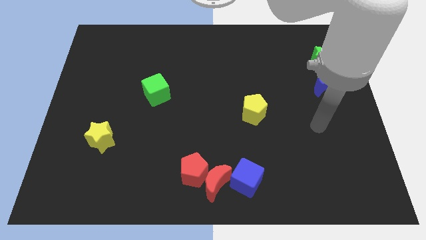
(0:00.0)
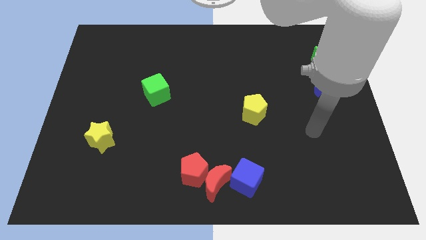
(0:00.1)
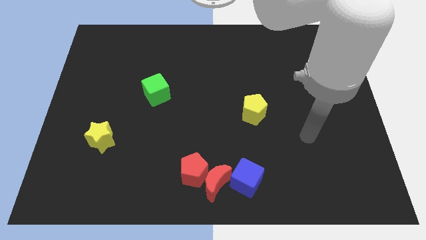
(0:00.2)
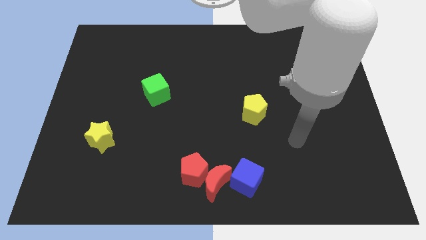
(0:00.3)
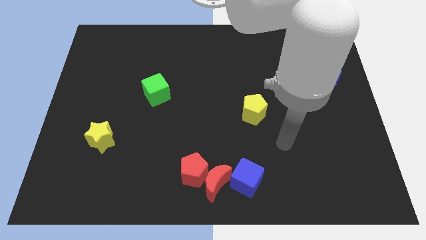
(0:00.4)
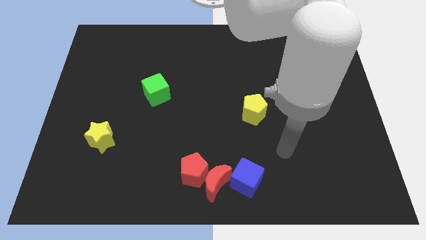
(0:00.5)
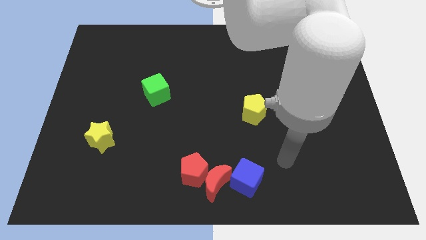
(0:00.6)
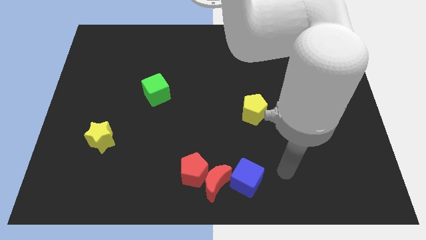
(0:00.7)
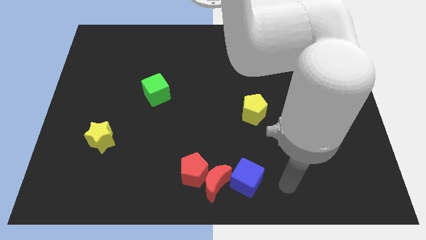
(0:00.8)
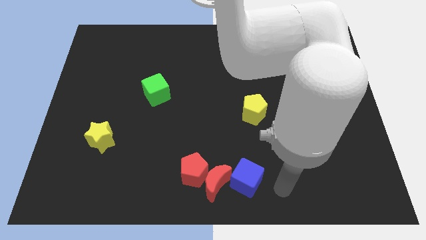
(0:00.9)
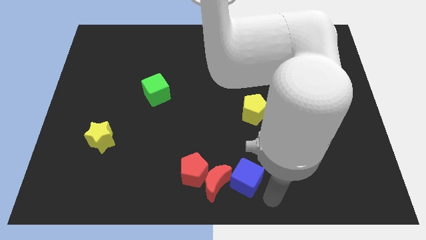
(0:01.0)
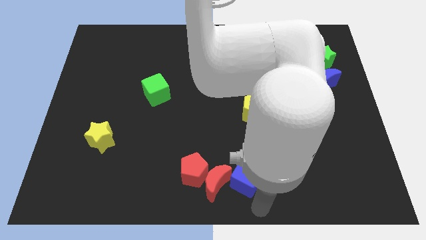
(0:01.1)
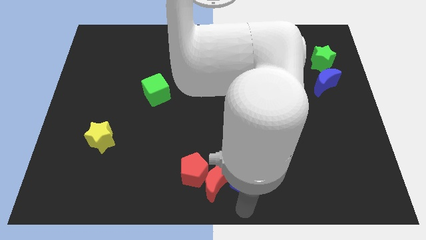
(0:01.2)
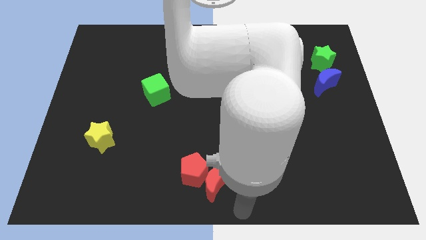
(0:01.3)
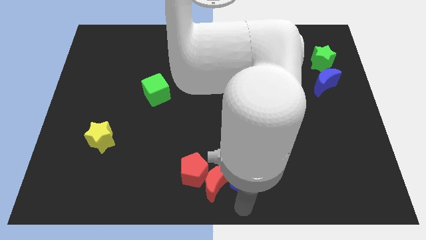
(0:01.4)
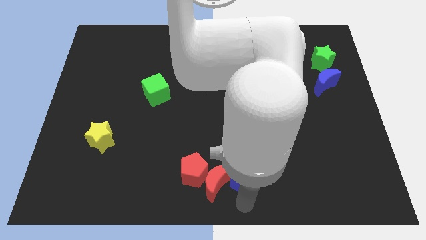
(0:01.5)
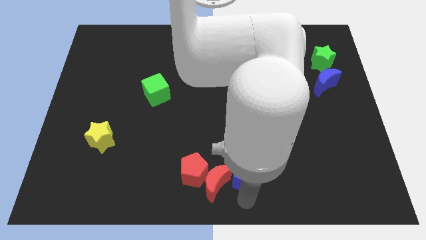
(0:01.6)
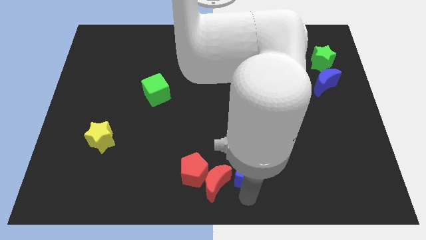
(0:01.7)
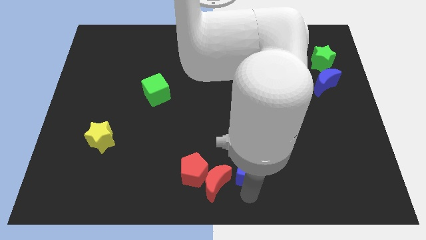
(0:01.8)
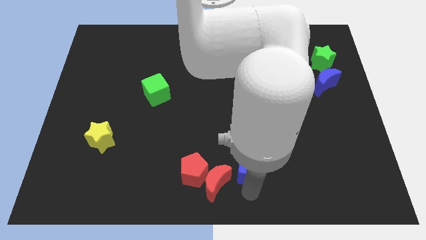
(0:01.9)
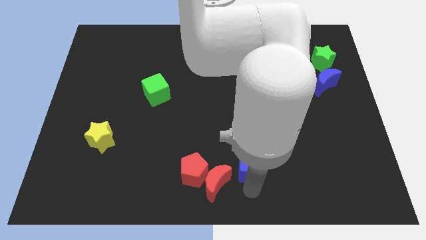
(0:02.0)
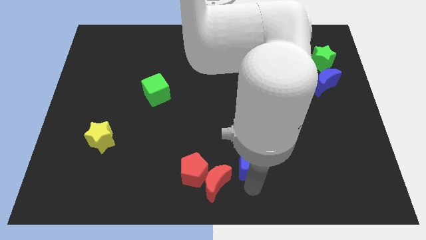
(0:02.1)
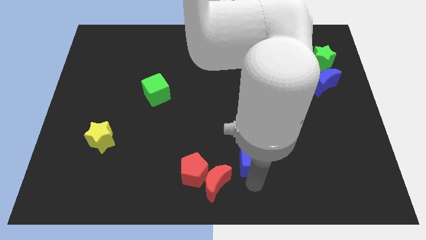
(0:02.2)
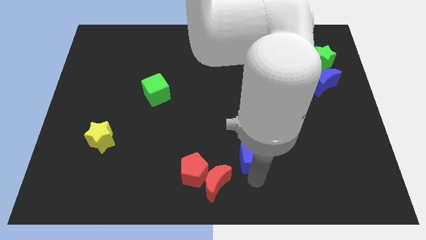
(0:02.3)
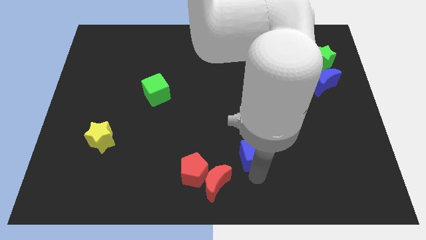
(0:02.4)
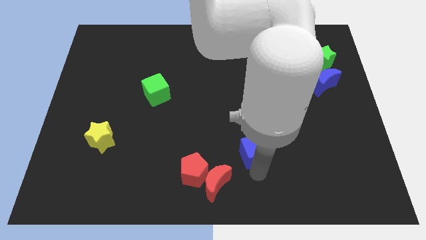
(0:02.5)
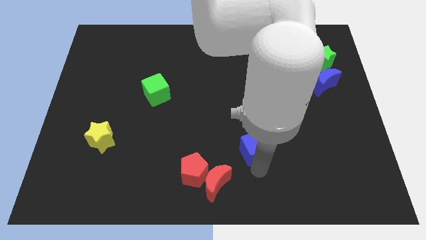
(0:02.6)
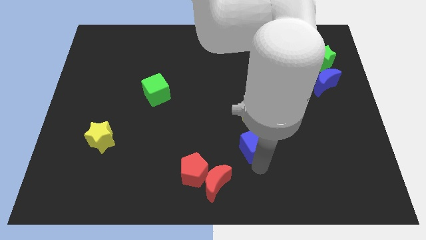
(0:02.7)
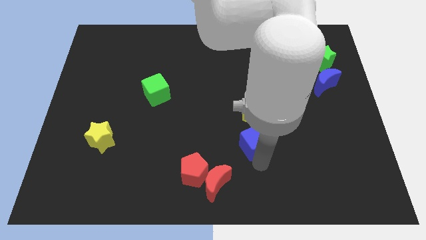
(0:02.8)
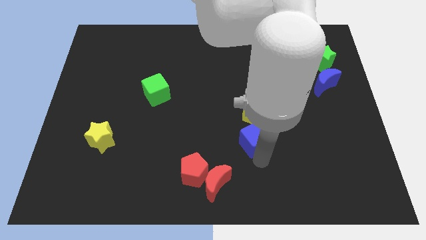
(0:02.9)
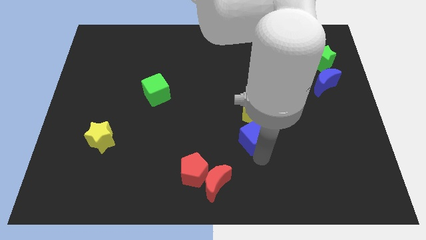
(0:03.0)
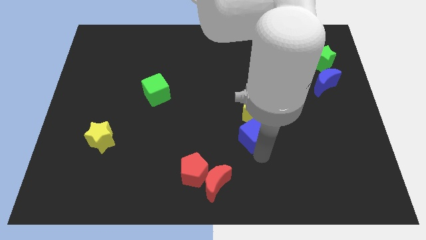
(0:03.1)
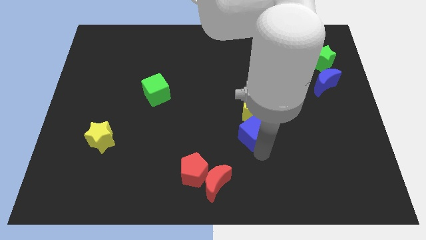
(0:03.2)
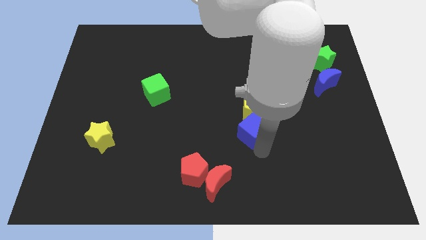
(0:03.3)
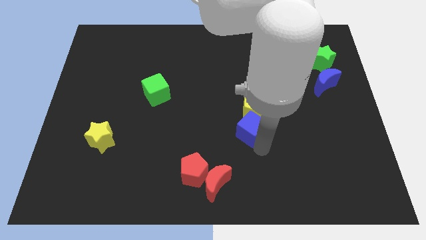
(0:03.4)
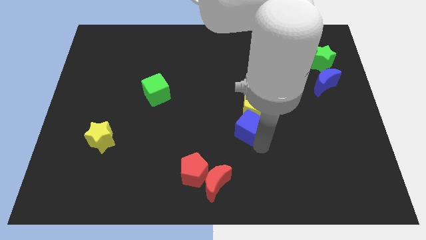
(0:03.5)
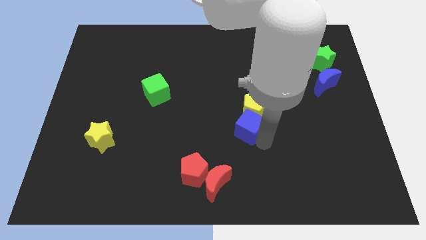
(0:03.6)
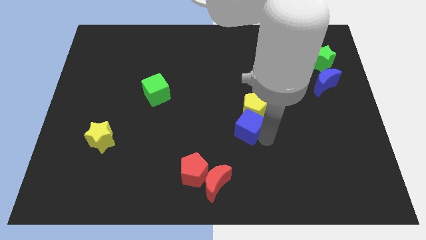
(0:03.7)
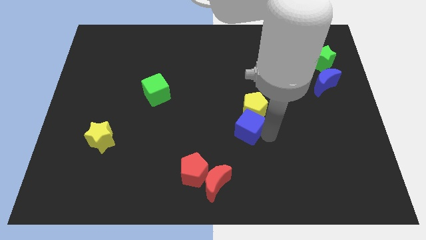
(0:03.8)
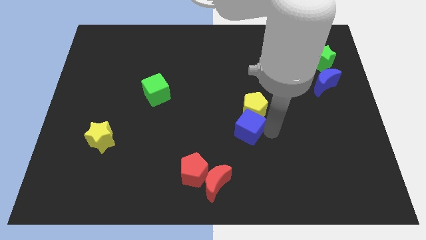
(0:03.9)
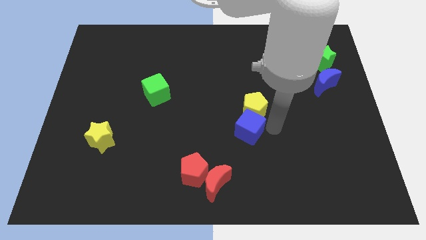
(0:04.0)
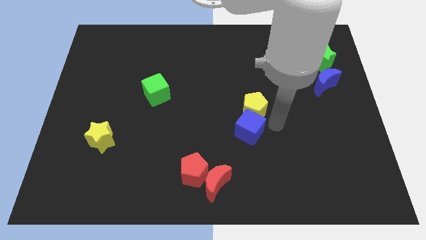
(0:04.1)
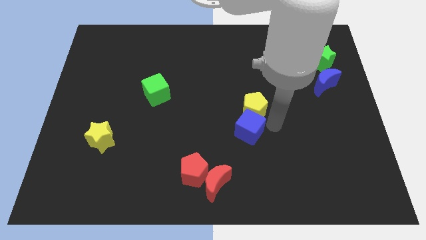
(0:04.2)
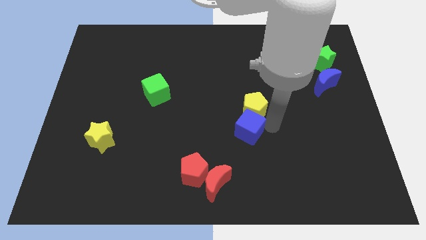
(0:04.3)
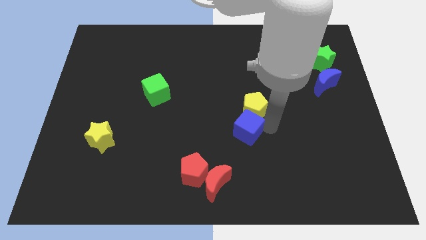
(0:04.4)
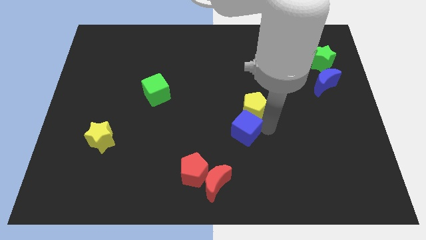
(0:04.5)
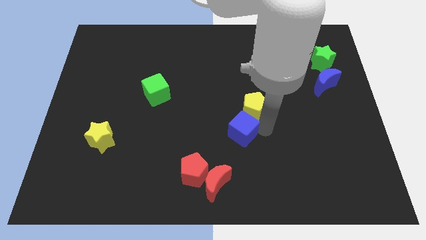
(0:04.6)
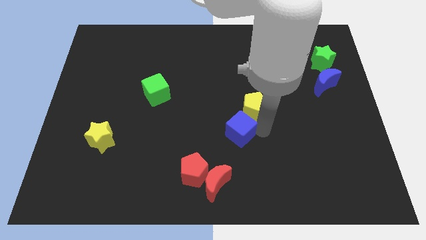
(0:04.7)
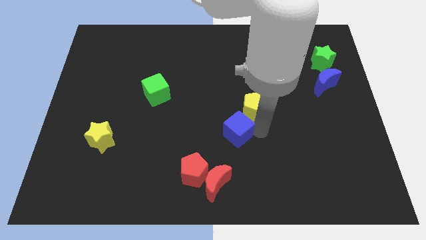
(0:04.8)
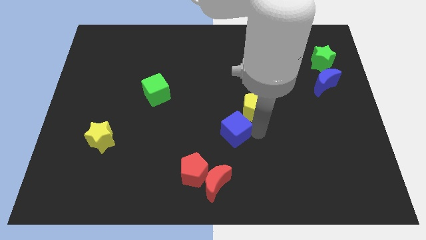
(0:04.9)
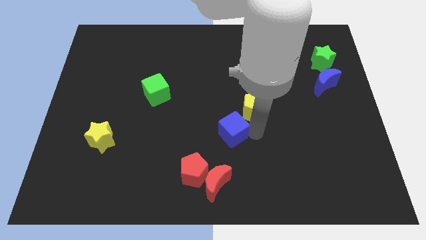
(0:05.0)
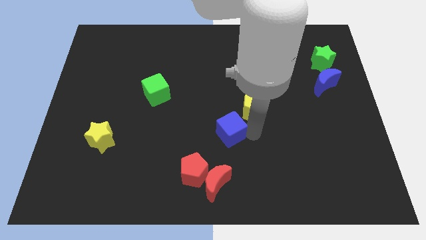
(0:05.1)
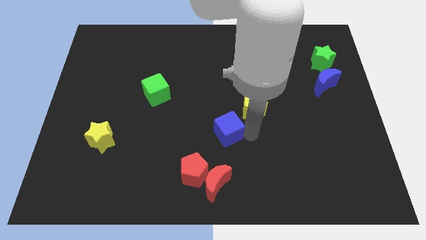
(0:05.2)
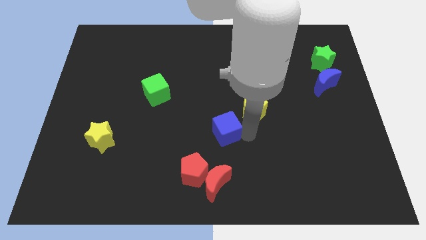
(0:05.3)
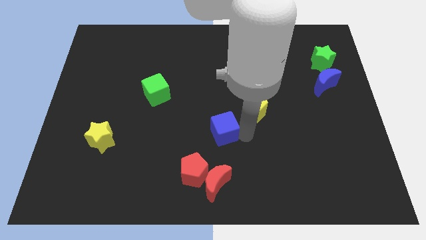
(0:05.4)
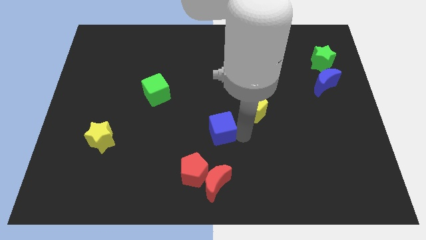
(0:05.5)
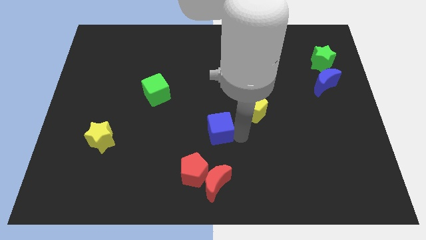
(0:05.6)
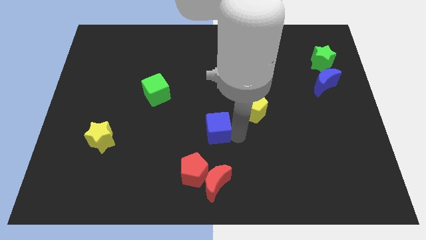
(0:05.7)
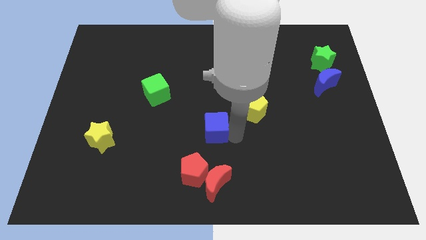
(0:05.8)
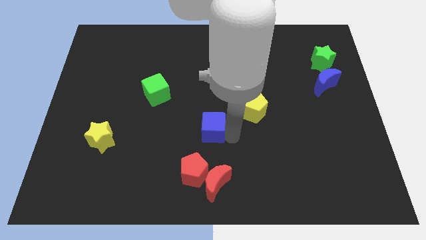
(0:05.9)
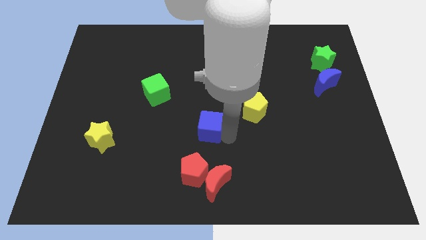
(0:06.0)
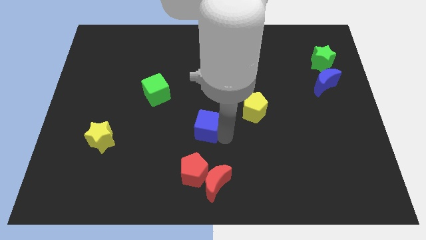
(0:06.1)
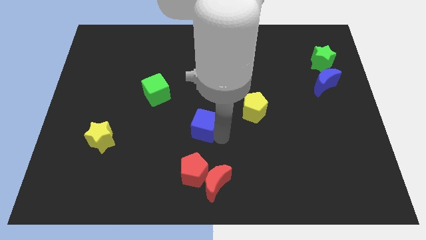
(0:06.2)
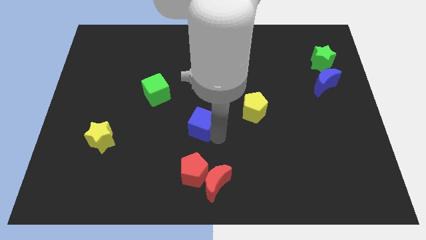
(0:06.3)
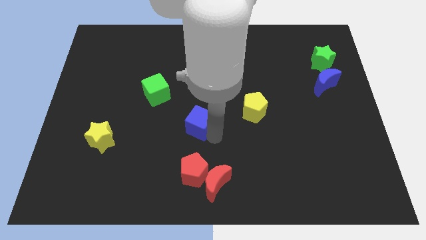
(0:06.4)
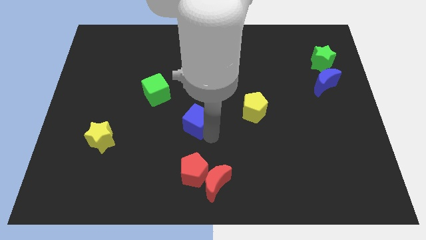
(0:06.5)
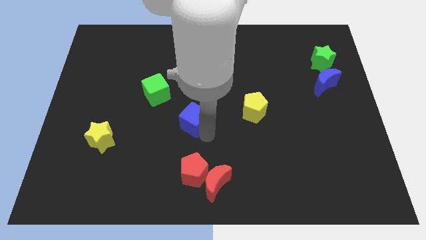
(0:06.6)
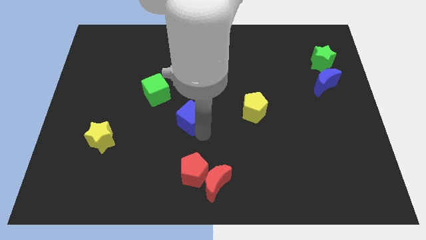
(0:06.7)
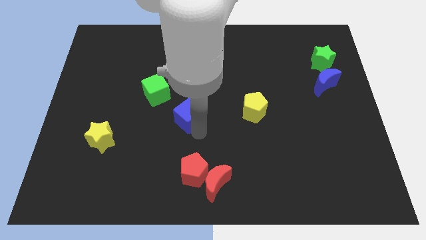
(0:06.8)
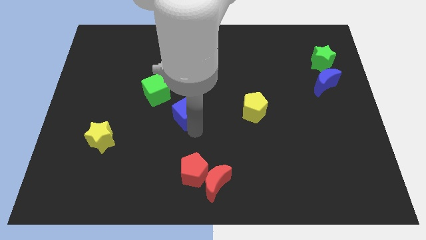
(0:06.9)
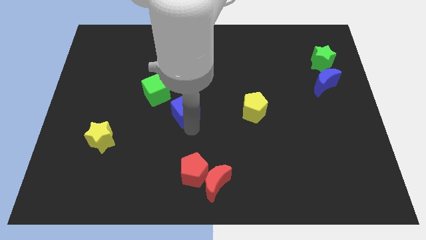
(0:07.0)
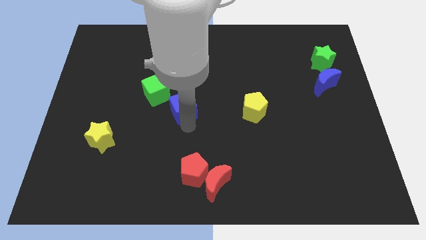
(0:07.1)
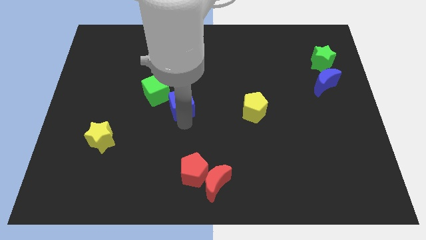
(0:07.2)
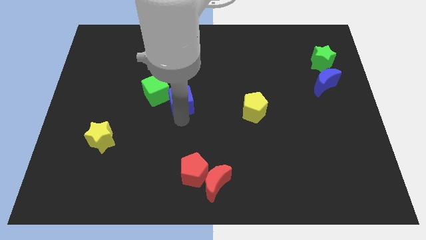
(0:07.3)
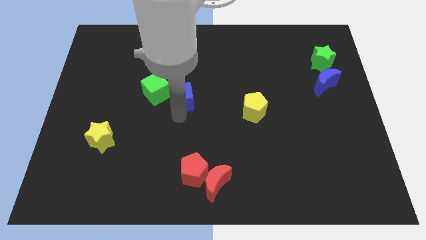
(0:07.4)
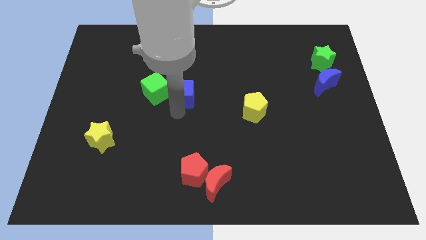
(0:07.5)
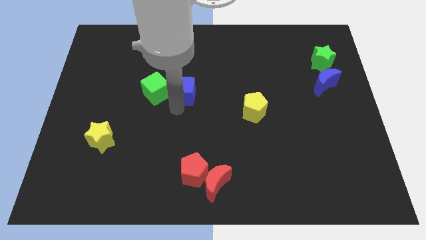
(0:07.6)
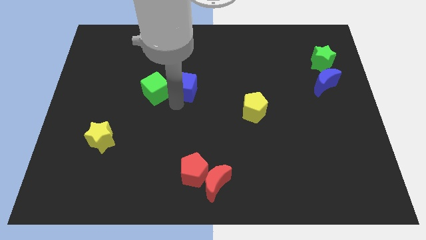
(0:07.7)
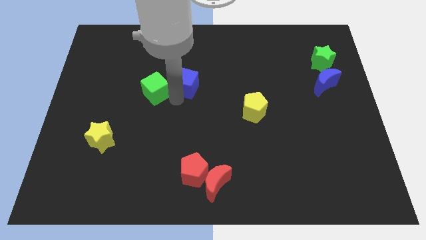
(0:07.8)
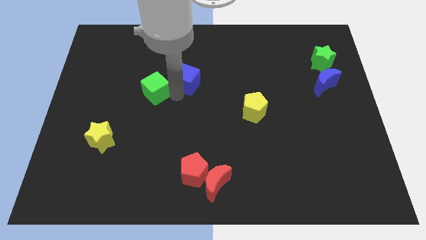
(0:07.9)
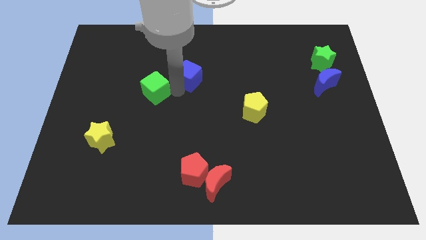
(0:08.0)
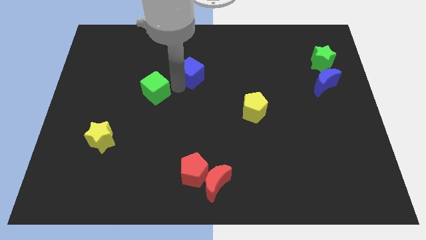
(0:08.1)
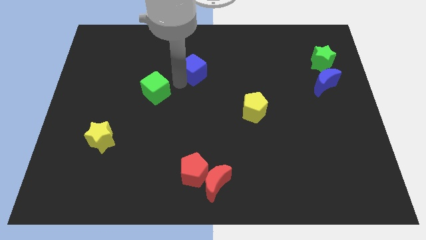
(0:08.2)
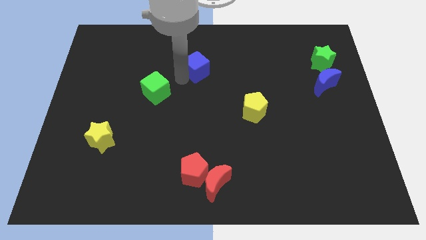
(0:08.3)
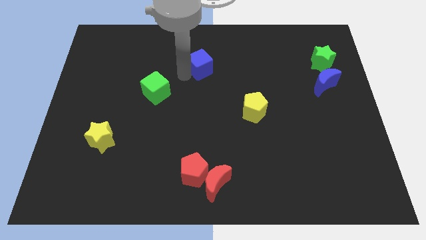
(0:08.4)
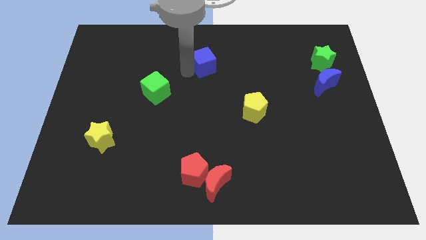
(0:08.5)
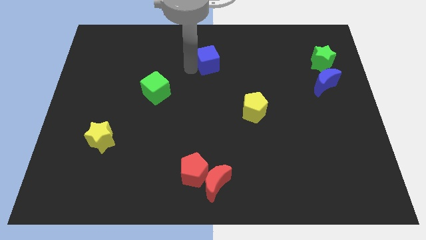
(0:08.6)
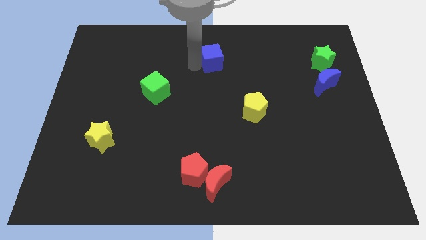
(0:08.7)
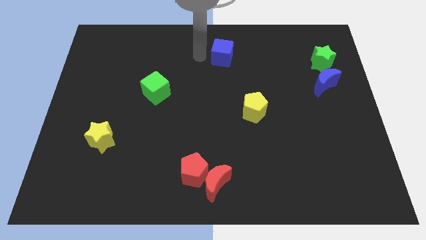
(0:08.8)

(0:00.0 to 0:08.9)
put the blue cube to the towards your base
